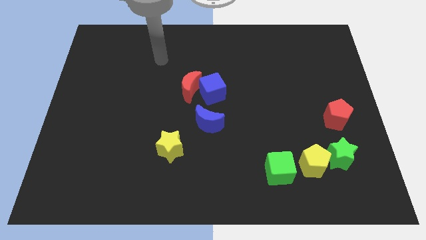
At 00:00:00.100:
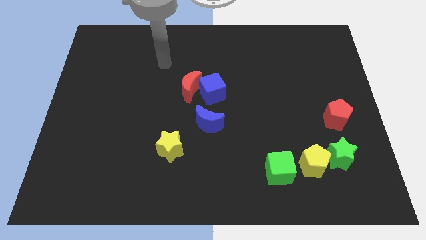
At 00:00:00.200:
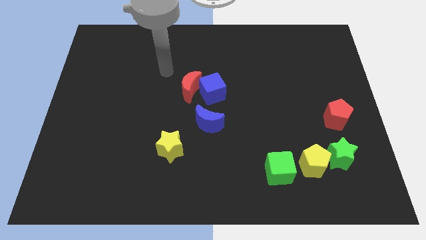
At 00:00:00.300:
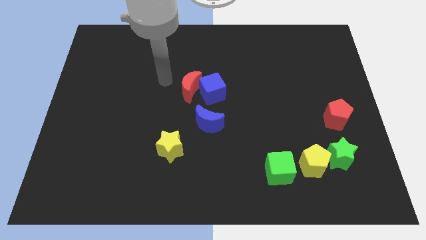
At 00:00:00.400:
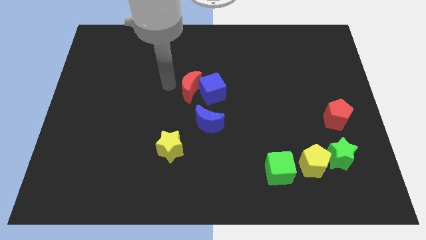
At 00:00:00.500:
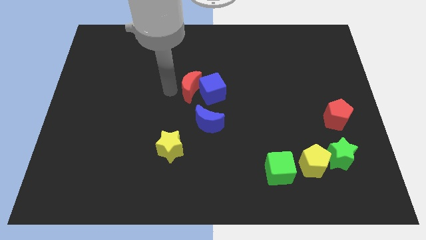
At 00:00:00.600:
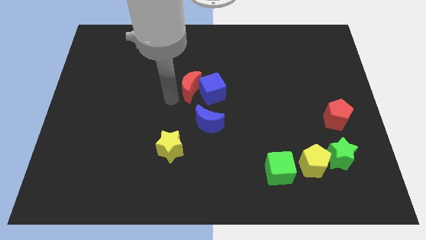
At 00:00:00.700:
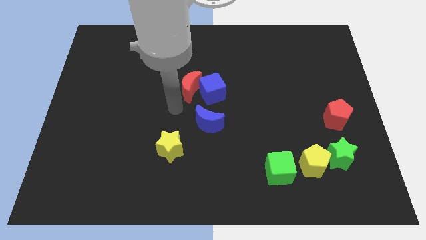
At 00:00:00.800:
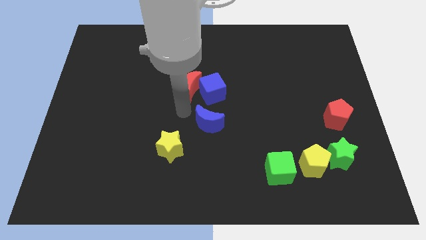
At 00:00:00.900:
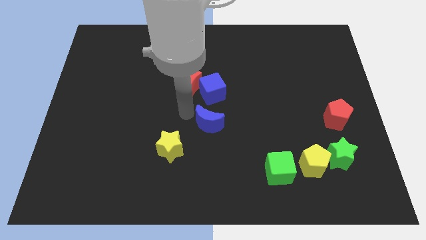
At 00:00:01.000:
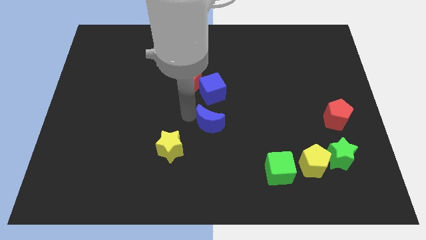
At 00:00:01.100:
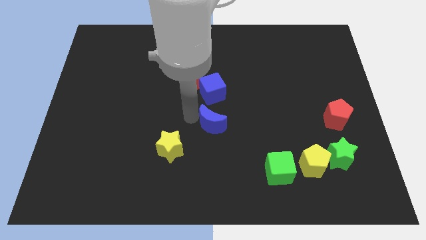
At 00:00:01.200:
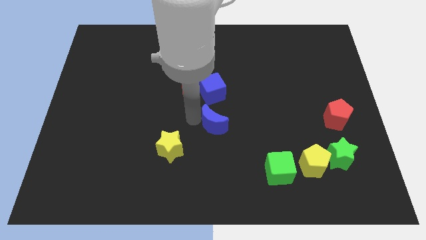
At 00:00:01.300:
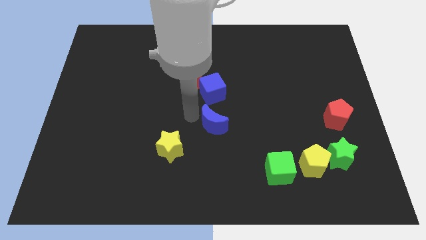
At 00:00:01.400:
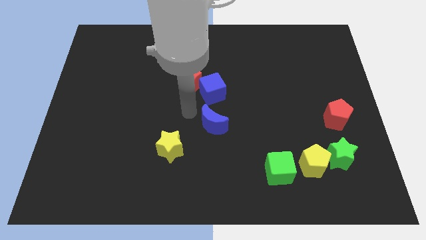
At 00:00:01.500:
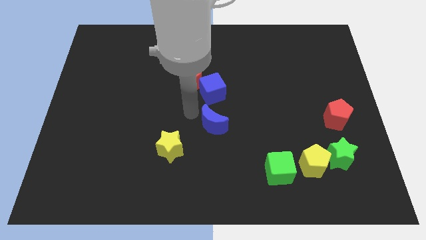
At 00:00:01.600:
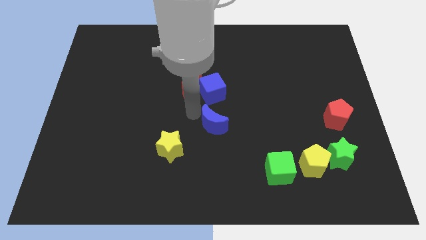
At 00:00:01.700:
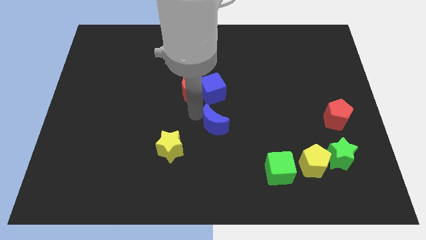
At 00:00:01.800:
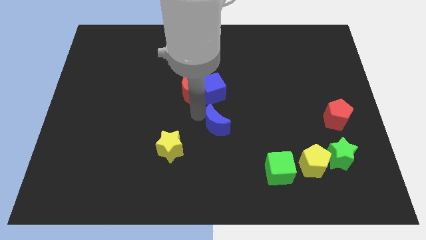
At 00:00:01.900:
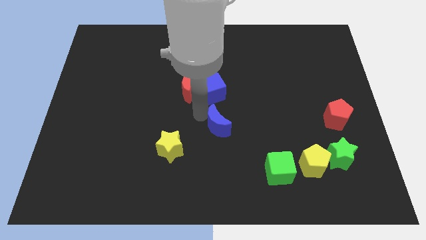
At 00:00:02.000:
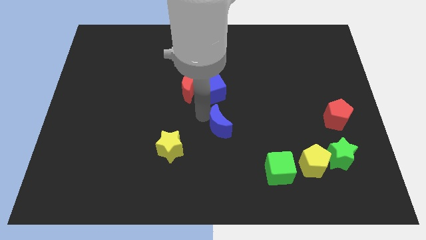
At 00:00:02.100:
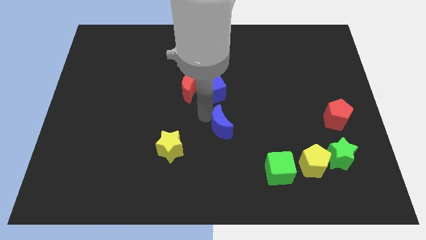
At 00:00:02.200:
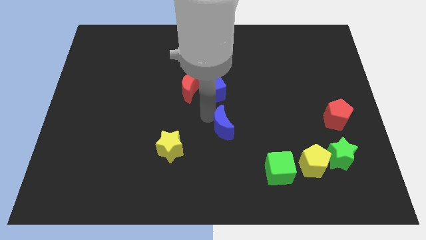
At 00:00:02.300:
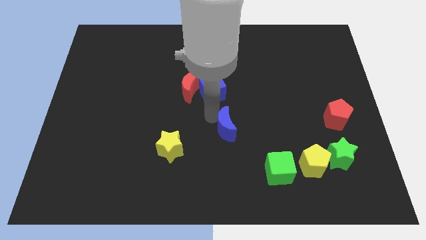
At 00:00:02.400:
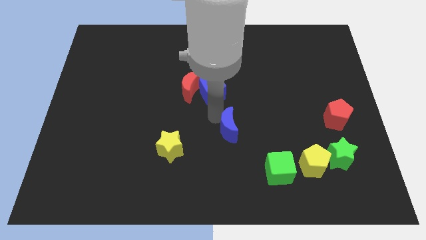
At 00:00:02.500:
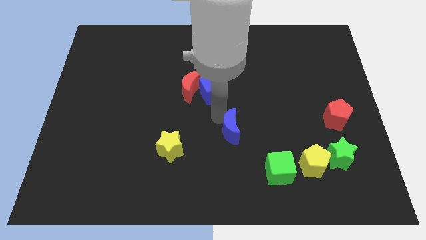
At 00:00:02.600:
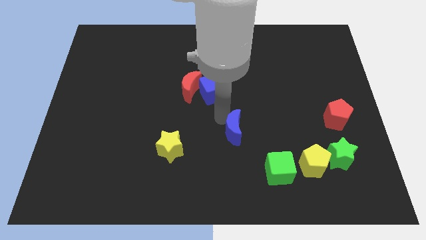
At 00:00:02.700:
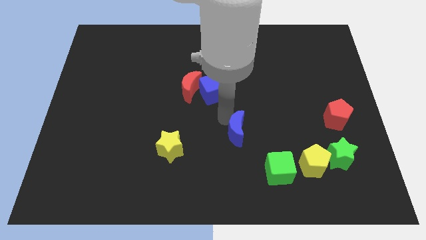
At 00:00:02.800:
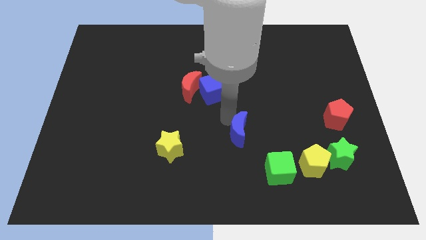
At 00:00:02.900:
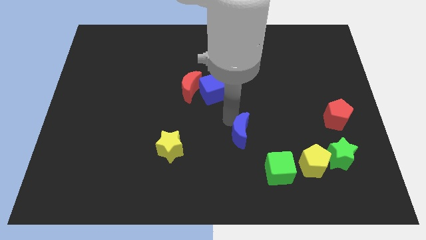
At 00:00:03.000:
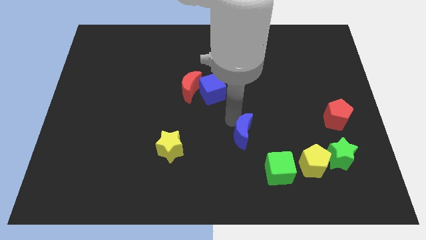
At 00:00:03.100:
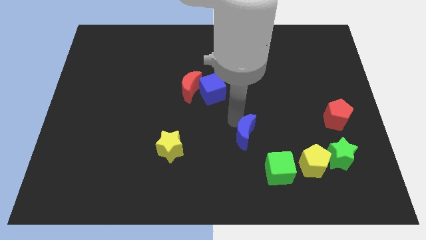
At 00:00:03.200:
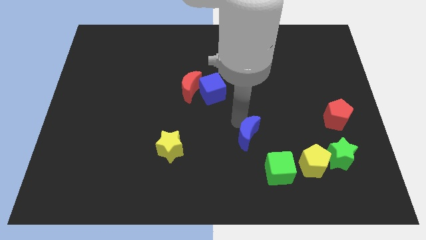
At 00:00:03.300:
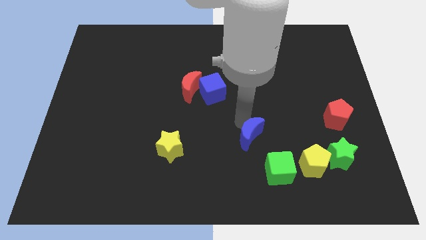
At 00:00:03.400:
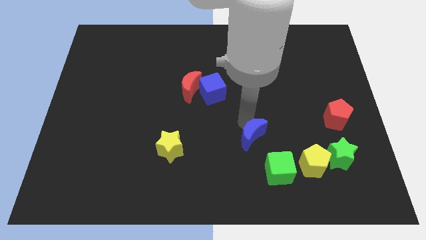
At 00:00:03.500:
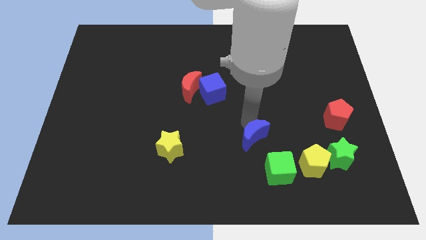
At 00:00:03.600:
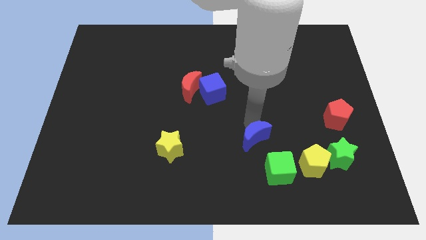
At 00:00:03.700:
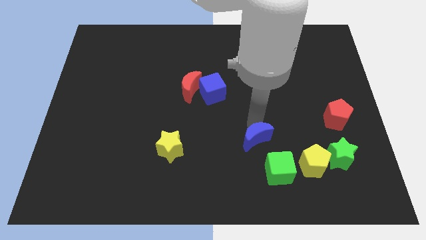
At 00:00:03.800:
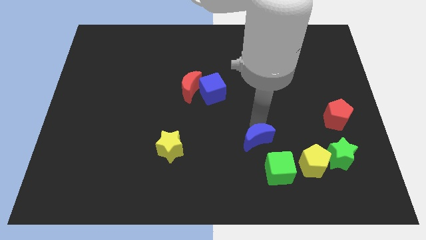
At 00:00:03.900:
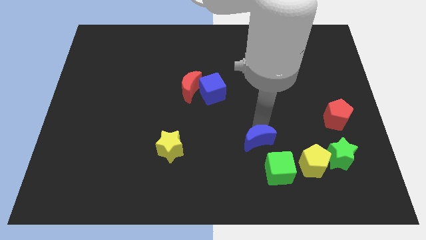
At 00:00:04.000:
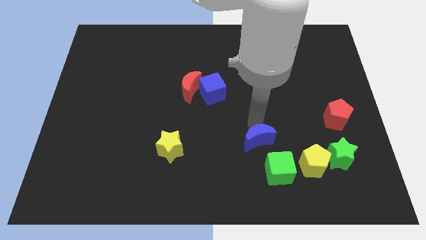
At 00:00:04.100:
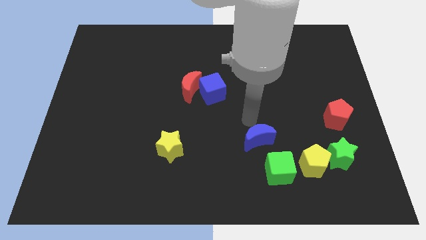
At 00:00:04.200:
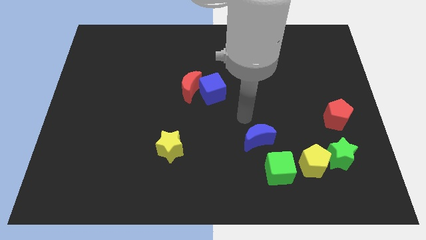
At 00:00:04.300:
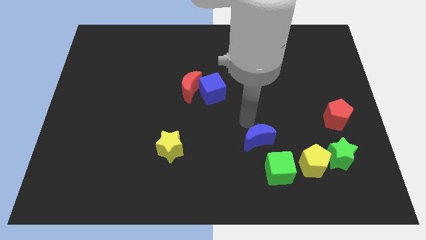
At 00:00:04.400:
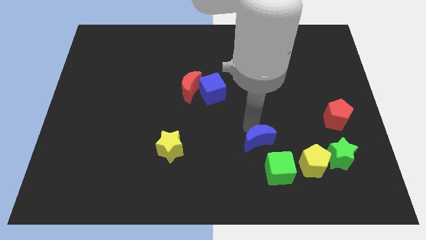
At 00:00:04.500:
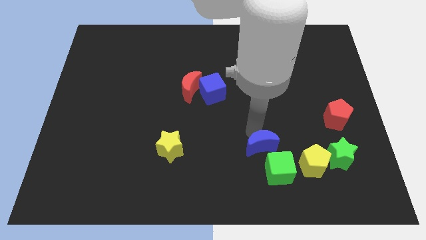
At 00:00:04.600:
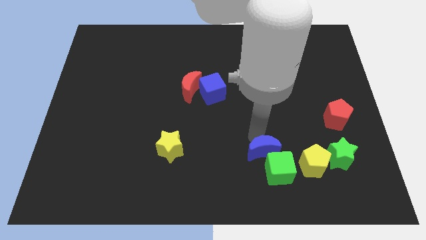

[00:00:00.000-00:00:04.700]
put the blue moon next to the green cube

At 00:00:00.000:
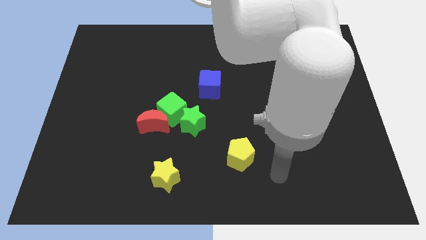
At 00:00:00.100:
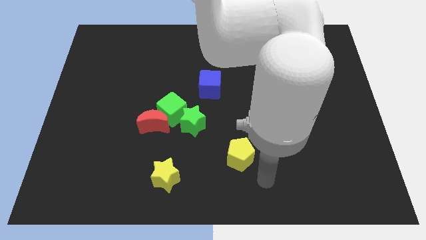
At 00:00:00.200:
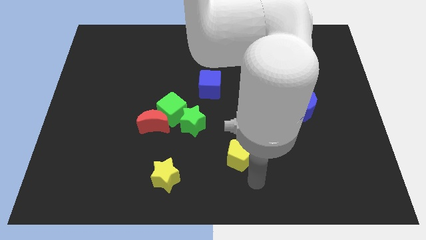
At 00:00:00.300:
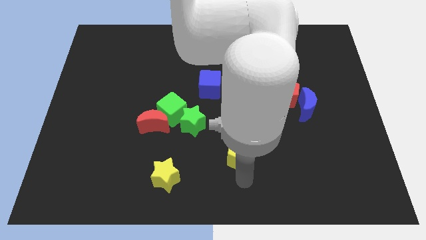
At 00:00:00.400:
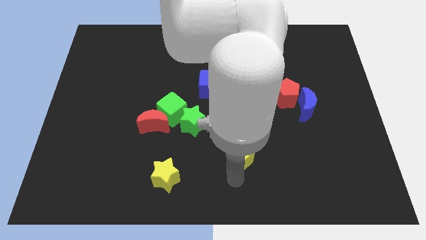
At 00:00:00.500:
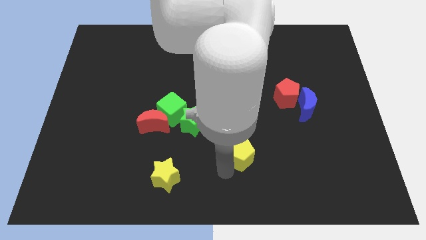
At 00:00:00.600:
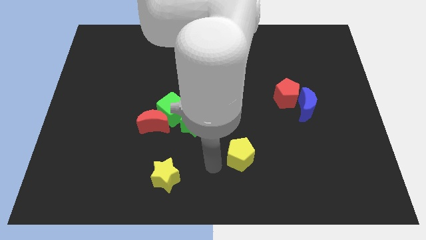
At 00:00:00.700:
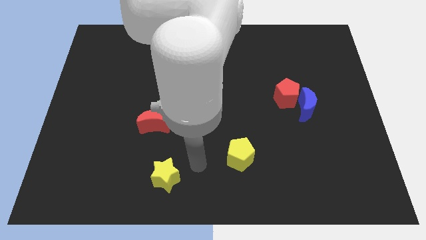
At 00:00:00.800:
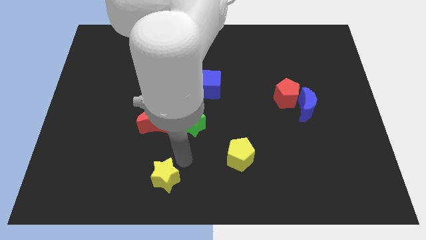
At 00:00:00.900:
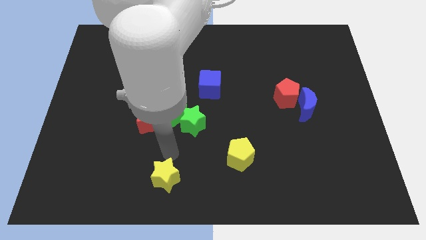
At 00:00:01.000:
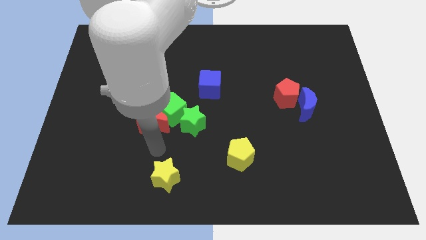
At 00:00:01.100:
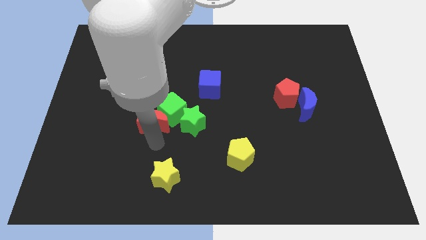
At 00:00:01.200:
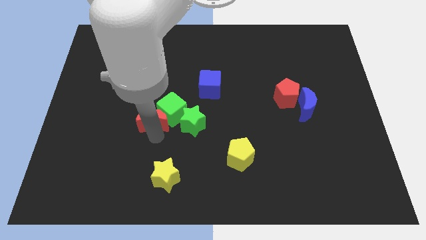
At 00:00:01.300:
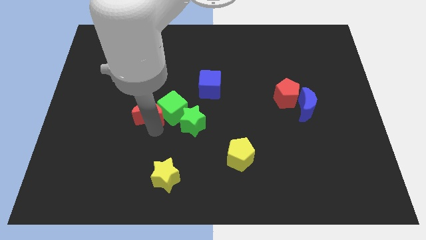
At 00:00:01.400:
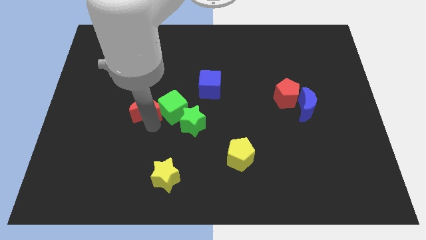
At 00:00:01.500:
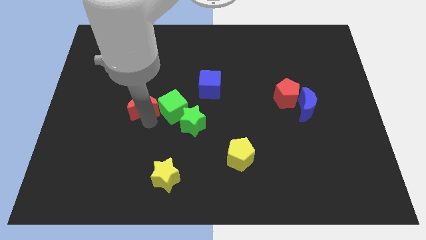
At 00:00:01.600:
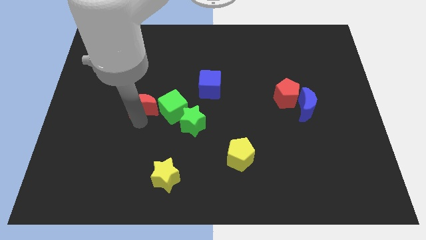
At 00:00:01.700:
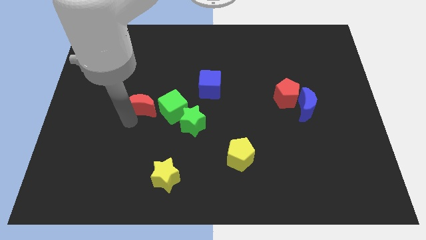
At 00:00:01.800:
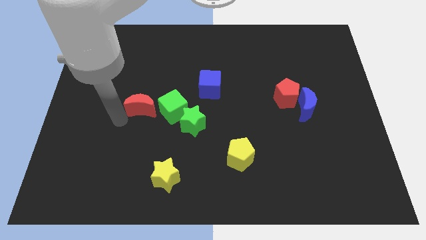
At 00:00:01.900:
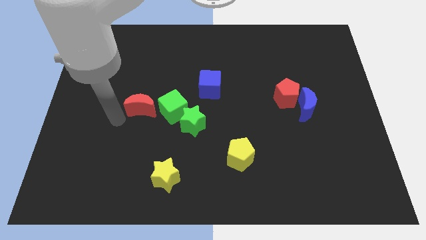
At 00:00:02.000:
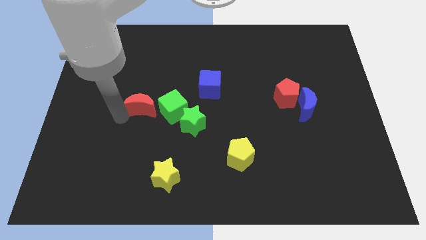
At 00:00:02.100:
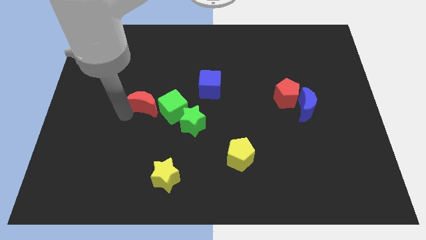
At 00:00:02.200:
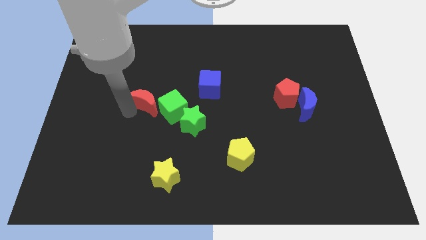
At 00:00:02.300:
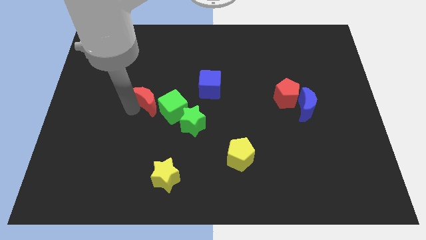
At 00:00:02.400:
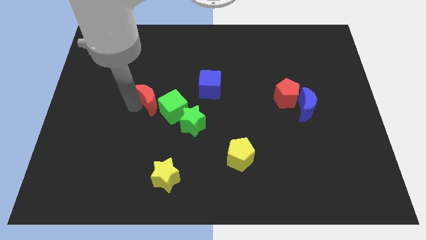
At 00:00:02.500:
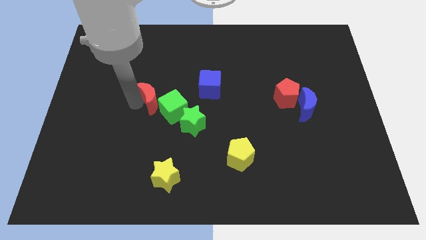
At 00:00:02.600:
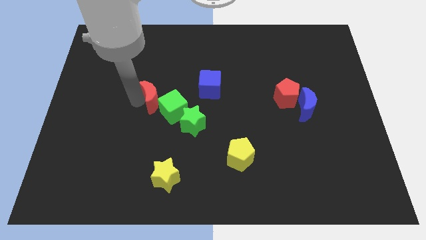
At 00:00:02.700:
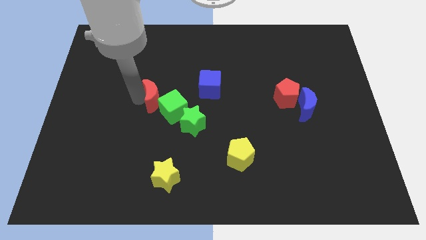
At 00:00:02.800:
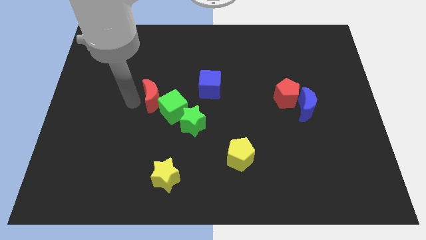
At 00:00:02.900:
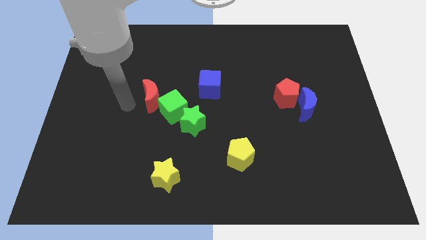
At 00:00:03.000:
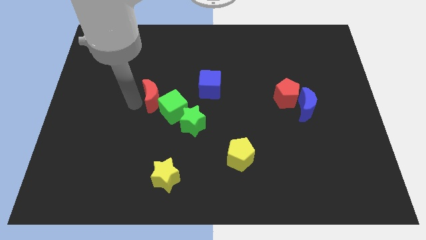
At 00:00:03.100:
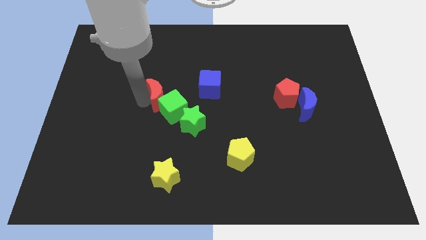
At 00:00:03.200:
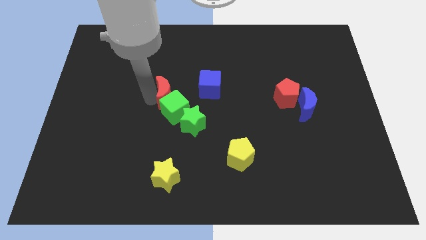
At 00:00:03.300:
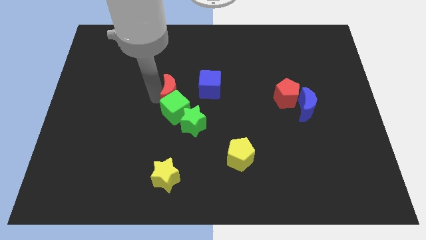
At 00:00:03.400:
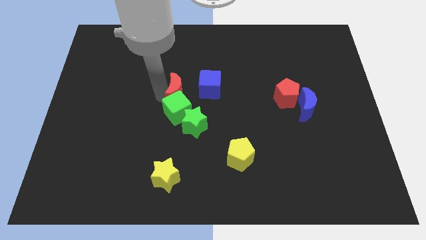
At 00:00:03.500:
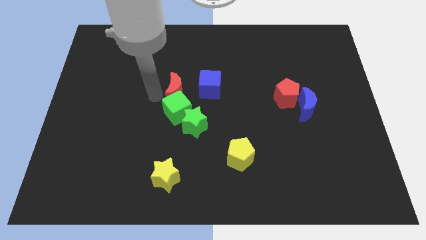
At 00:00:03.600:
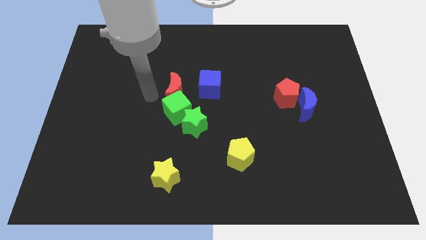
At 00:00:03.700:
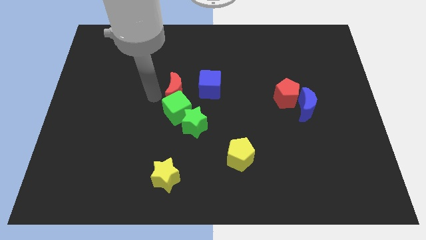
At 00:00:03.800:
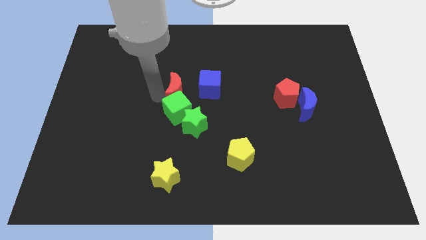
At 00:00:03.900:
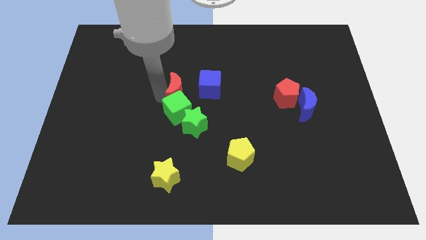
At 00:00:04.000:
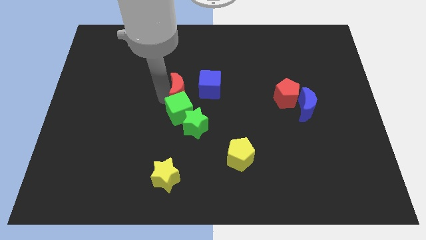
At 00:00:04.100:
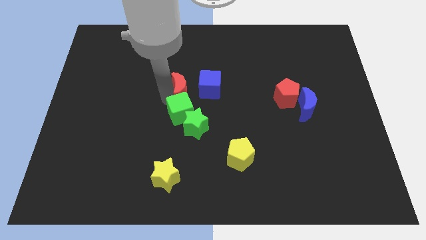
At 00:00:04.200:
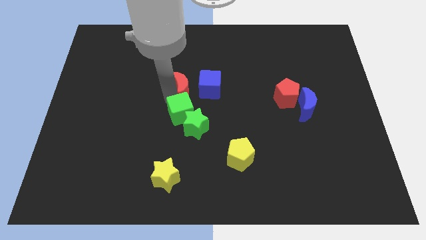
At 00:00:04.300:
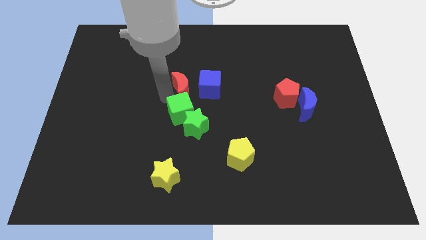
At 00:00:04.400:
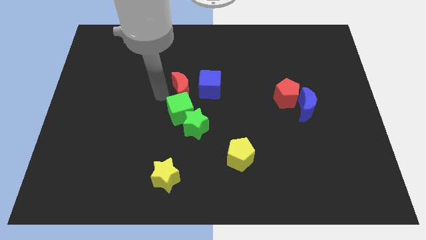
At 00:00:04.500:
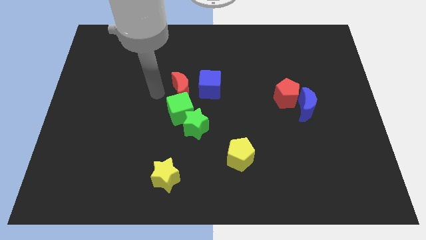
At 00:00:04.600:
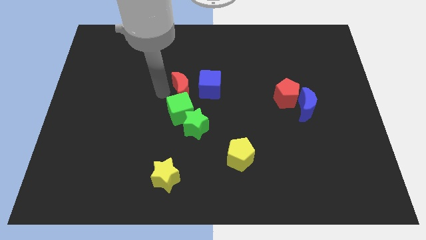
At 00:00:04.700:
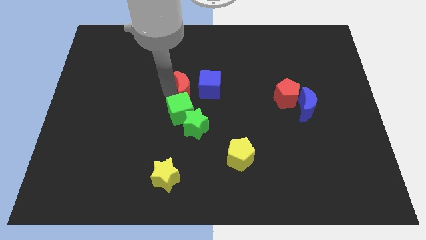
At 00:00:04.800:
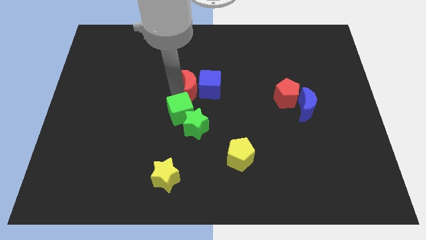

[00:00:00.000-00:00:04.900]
slide the red moon next to the blue cube
